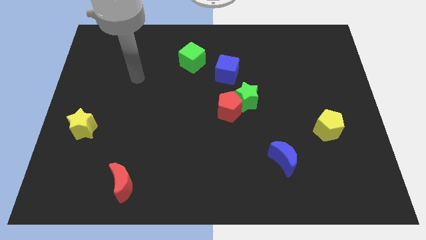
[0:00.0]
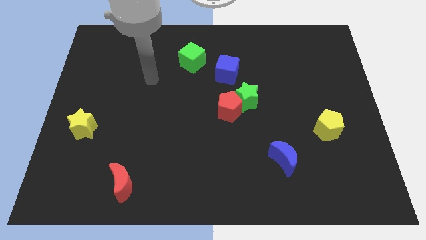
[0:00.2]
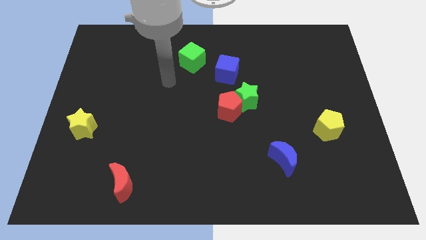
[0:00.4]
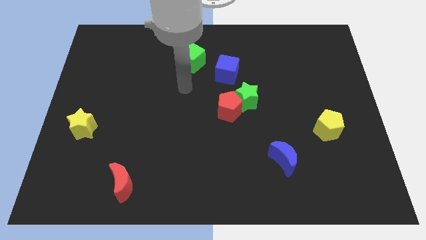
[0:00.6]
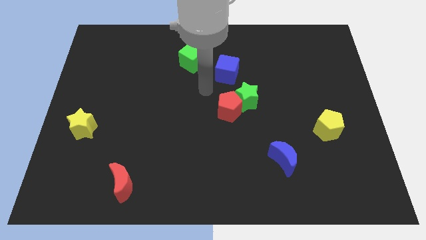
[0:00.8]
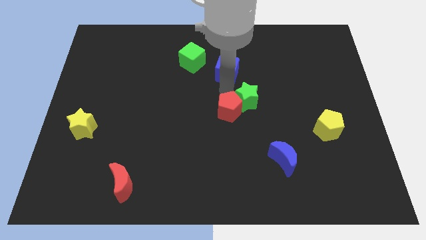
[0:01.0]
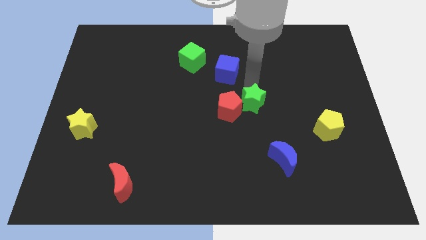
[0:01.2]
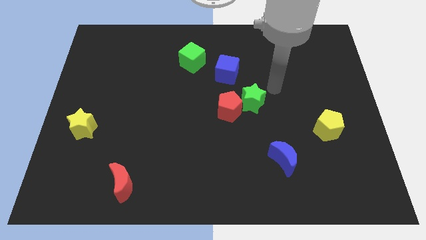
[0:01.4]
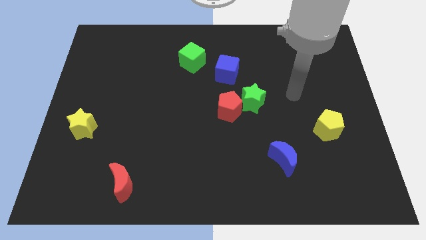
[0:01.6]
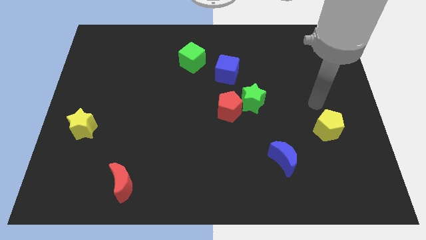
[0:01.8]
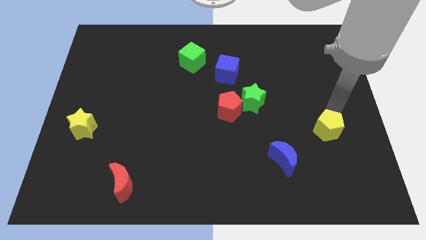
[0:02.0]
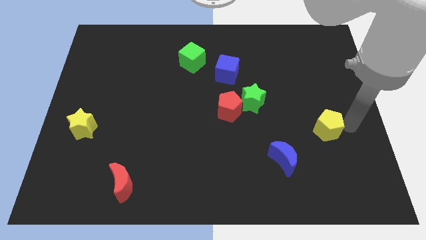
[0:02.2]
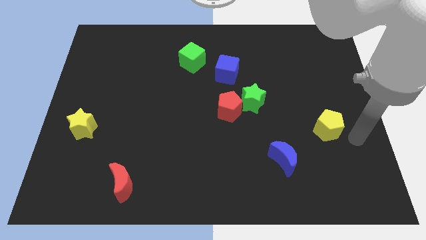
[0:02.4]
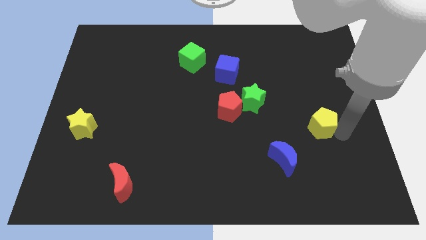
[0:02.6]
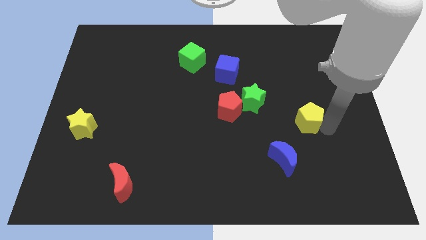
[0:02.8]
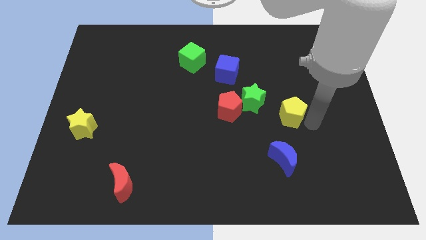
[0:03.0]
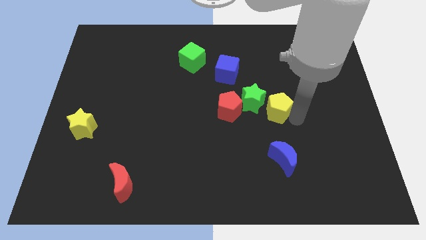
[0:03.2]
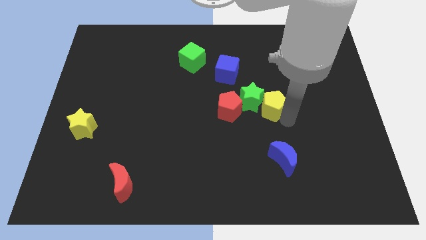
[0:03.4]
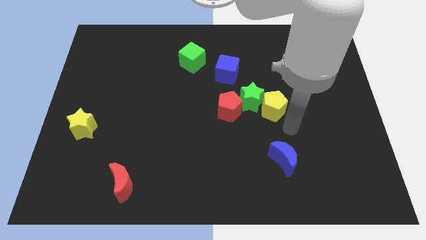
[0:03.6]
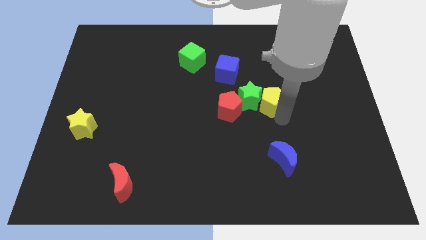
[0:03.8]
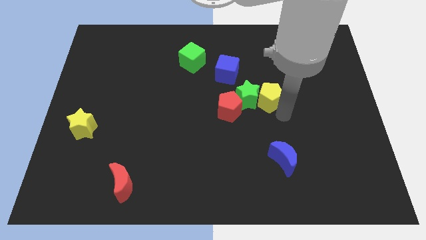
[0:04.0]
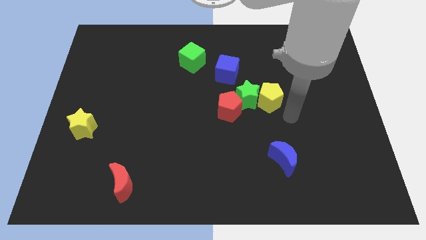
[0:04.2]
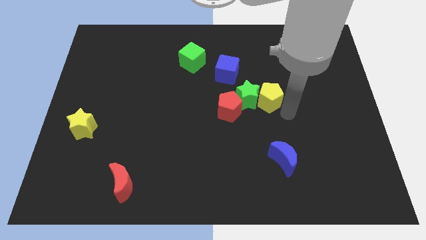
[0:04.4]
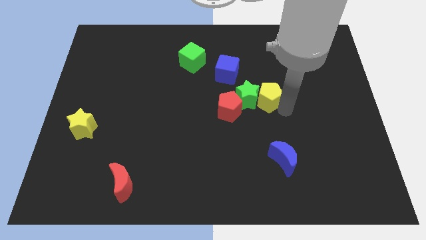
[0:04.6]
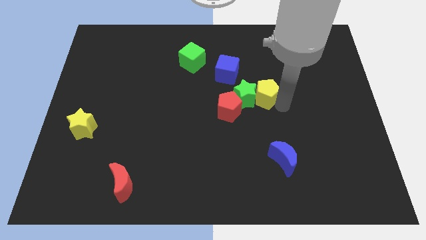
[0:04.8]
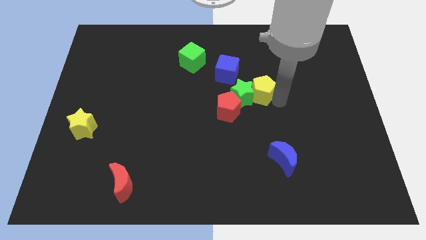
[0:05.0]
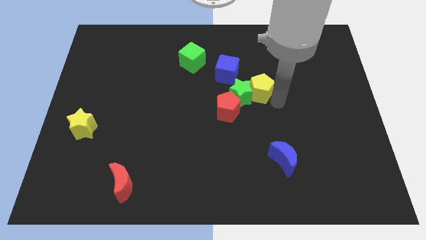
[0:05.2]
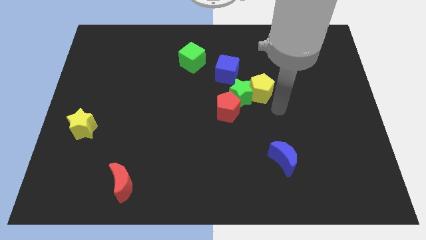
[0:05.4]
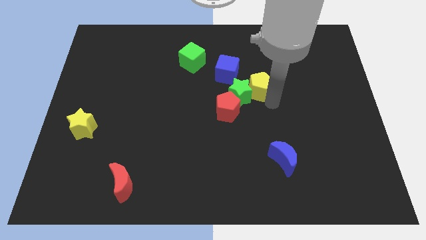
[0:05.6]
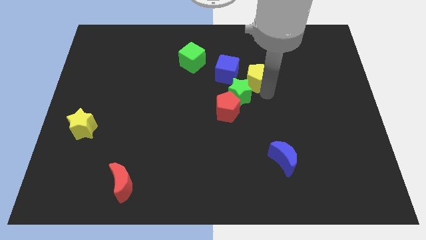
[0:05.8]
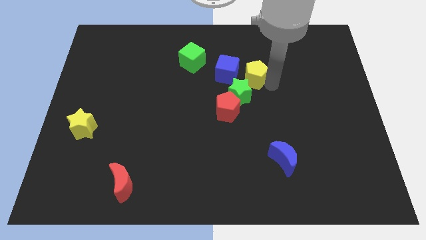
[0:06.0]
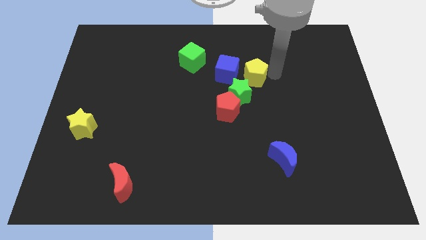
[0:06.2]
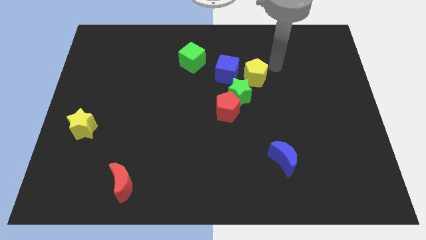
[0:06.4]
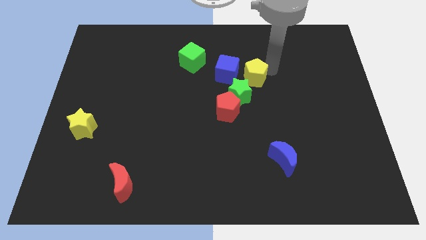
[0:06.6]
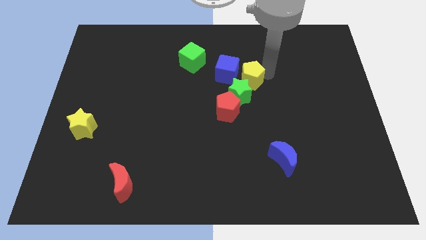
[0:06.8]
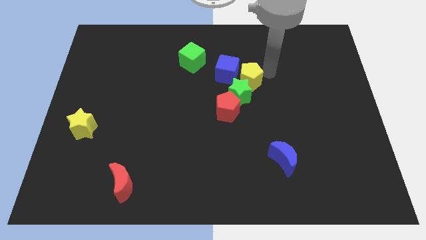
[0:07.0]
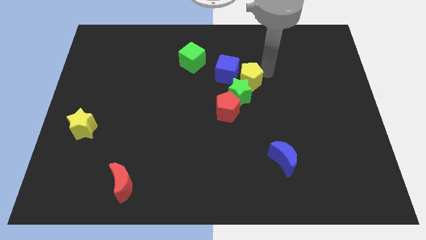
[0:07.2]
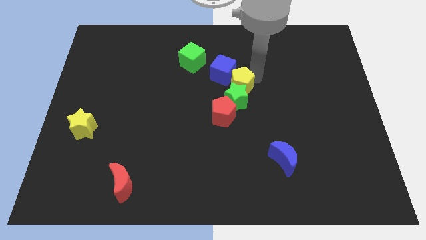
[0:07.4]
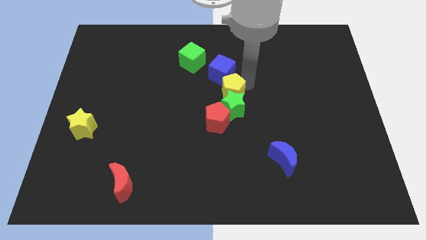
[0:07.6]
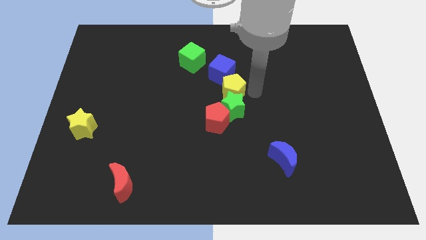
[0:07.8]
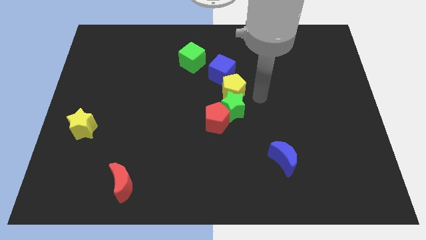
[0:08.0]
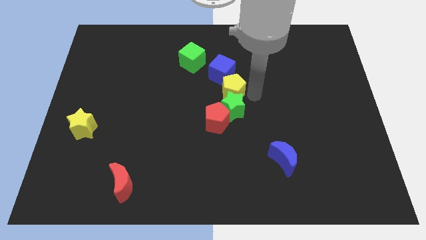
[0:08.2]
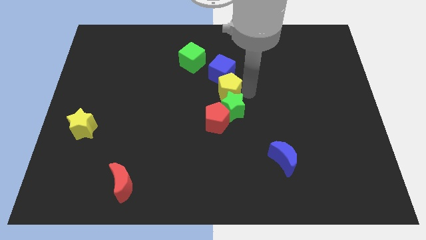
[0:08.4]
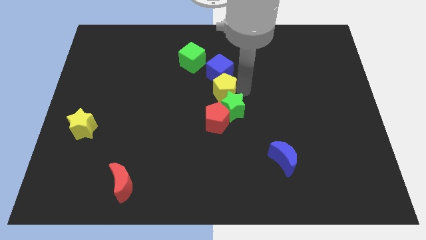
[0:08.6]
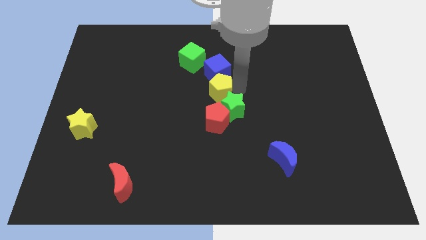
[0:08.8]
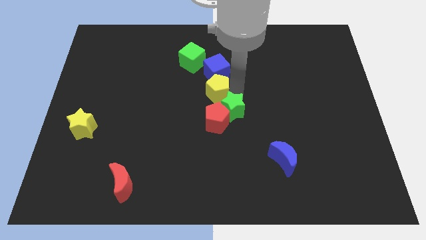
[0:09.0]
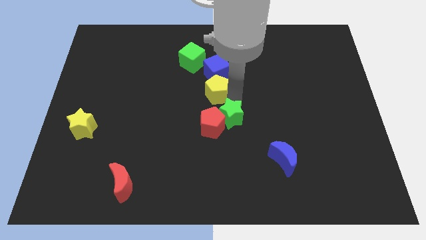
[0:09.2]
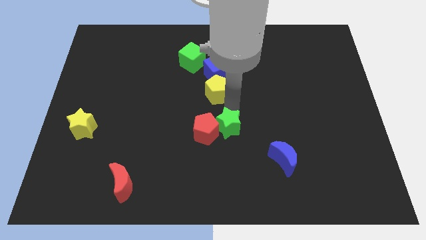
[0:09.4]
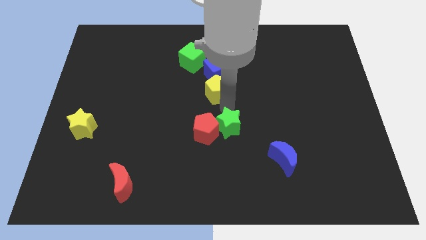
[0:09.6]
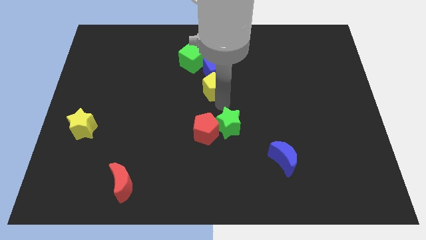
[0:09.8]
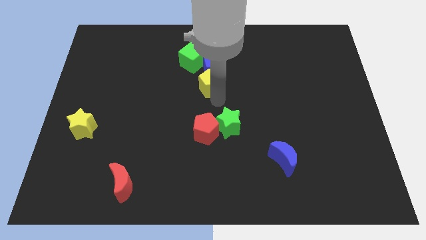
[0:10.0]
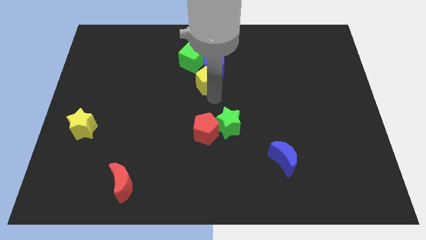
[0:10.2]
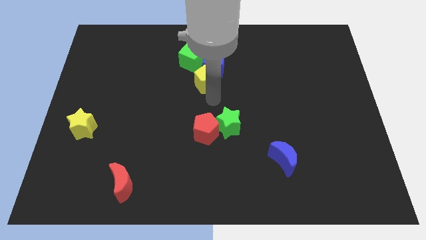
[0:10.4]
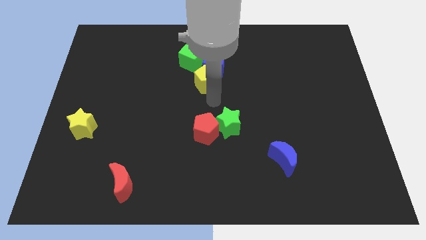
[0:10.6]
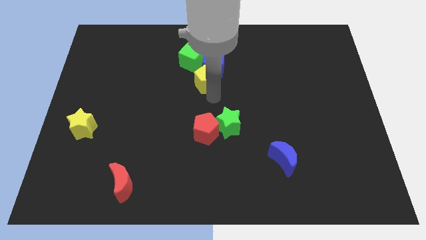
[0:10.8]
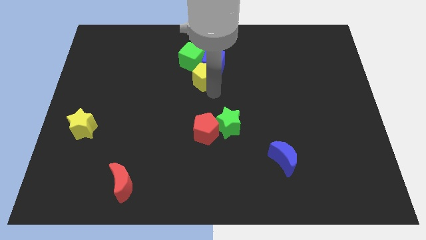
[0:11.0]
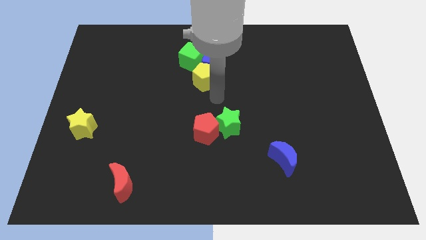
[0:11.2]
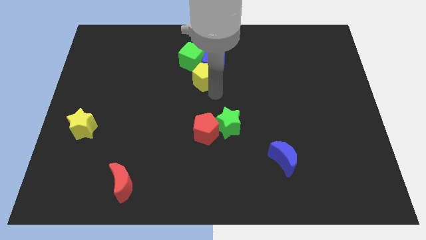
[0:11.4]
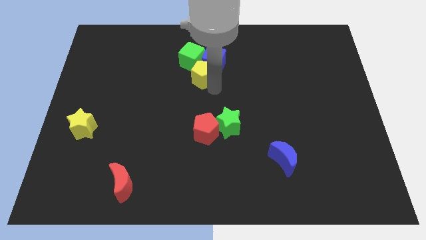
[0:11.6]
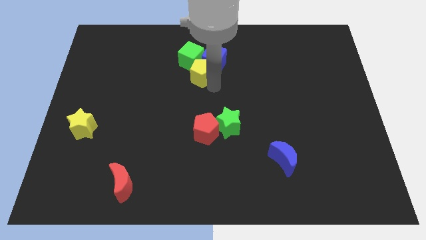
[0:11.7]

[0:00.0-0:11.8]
put the yellow pentagon next to the green cube
